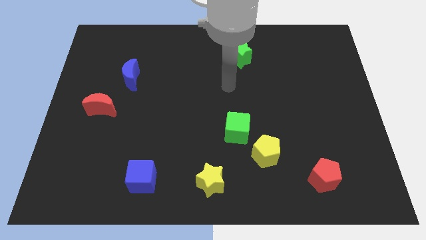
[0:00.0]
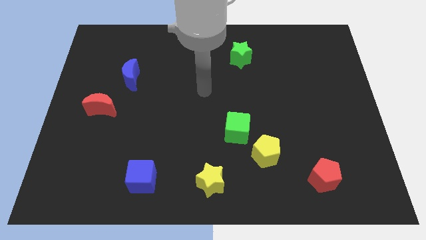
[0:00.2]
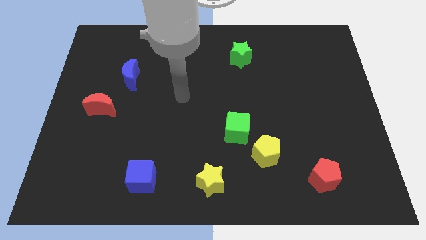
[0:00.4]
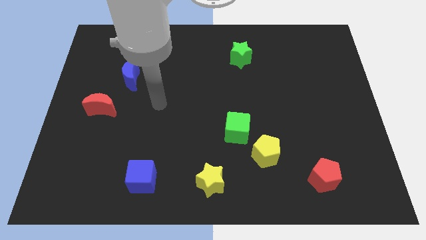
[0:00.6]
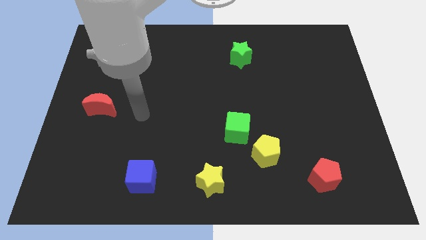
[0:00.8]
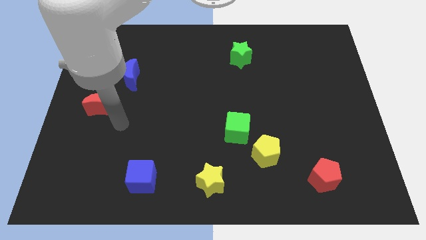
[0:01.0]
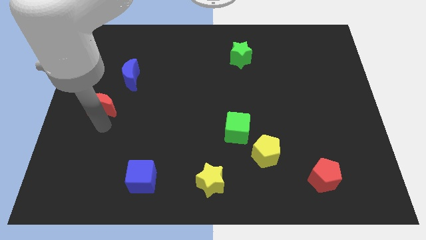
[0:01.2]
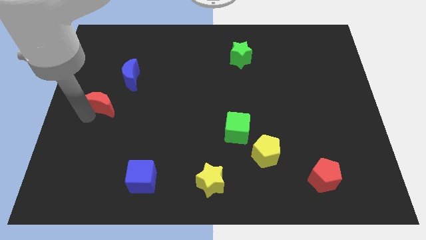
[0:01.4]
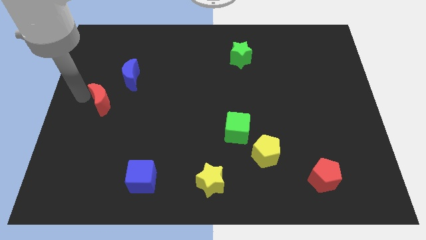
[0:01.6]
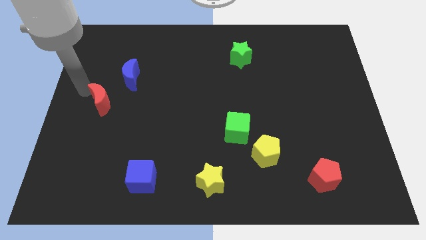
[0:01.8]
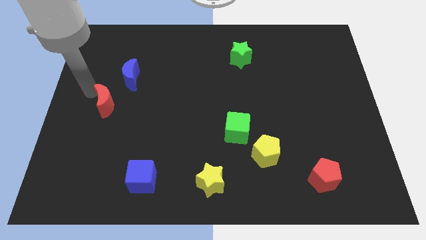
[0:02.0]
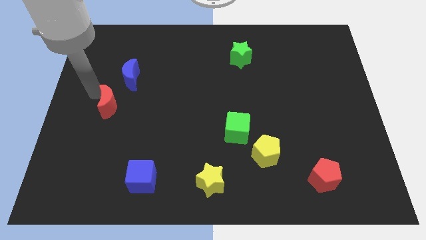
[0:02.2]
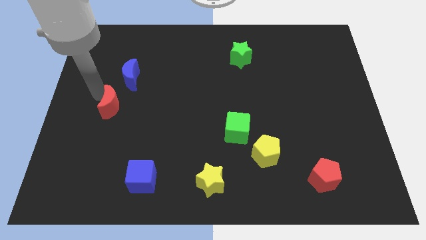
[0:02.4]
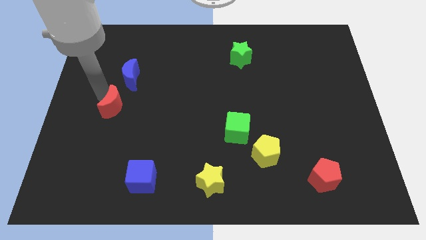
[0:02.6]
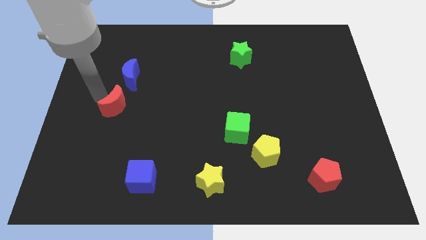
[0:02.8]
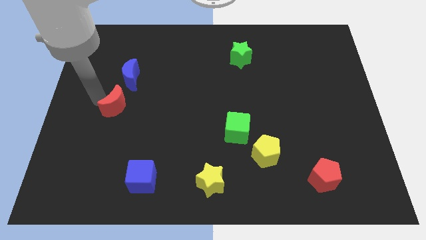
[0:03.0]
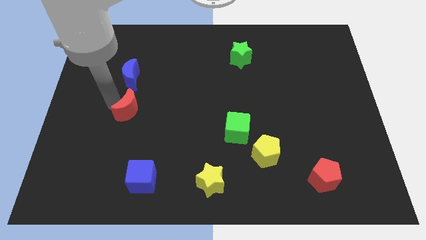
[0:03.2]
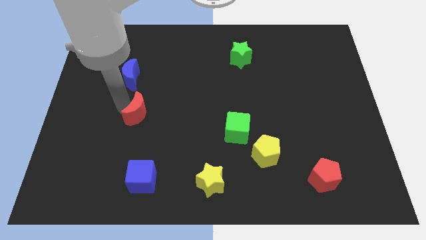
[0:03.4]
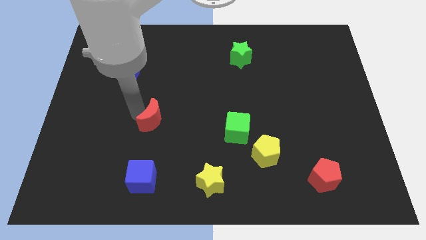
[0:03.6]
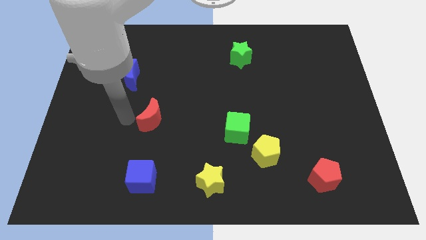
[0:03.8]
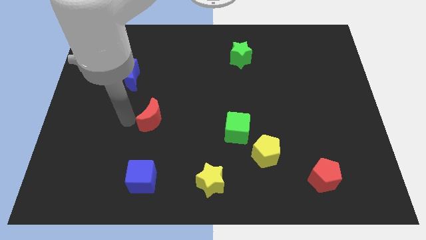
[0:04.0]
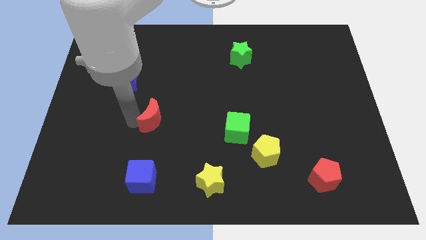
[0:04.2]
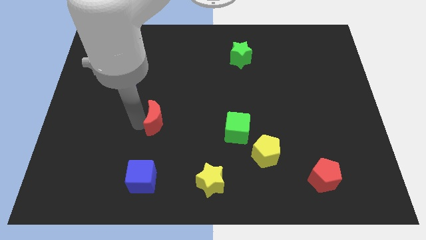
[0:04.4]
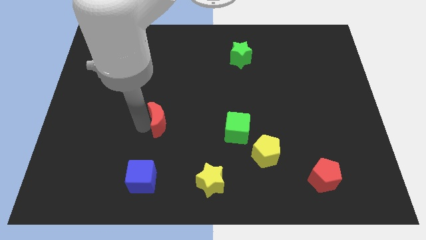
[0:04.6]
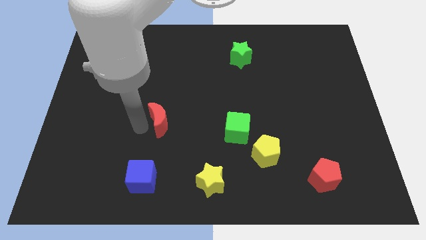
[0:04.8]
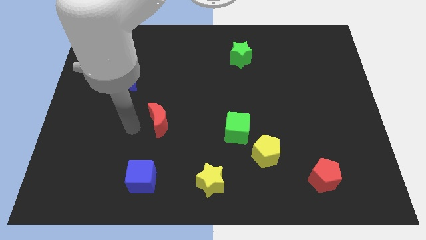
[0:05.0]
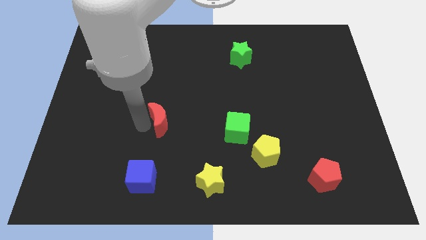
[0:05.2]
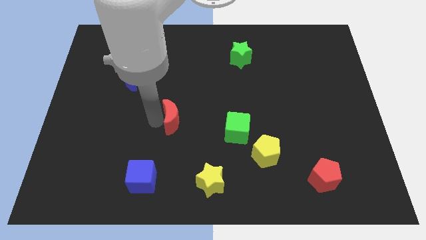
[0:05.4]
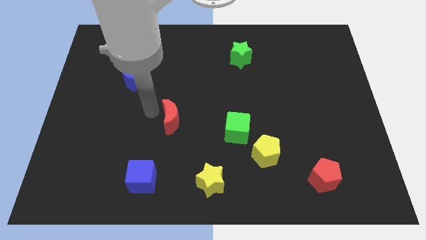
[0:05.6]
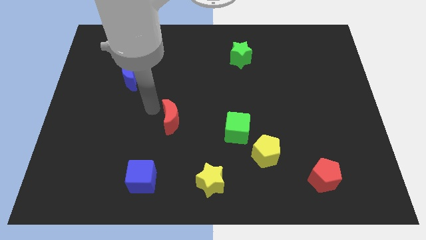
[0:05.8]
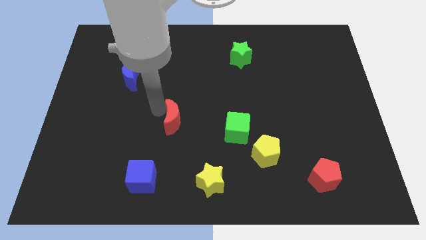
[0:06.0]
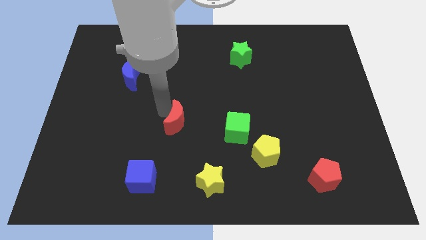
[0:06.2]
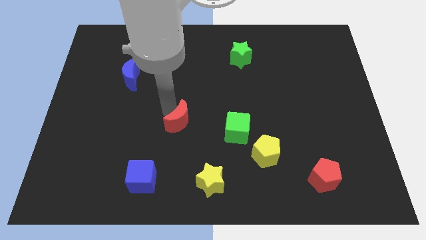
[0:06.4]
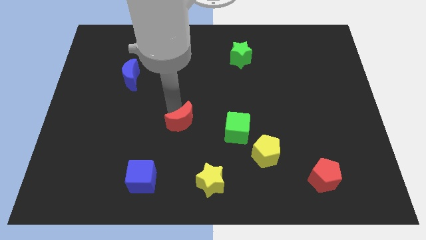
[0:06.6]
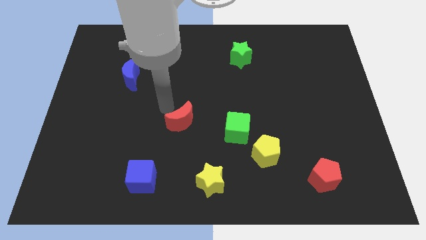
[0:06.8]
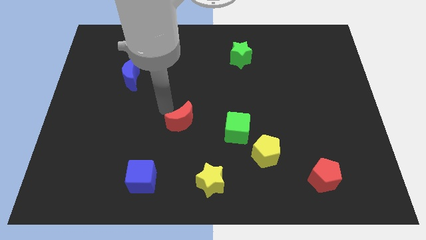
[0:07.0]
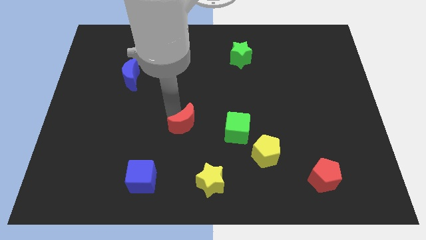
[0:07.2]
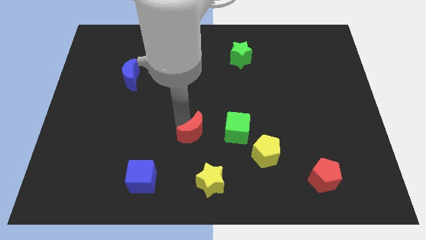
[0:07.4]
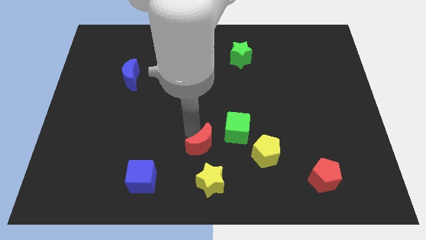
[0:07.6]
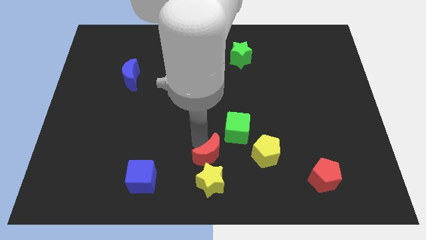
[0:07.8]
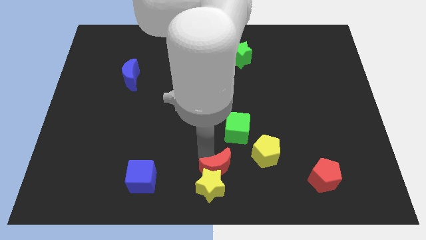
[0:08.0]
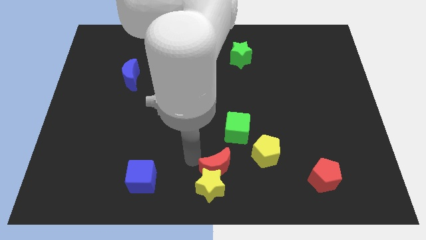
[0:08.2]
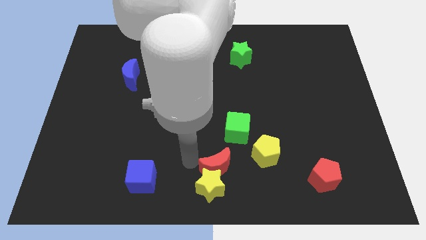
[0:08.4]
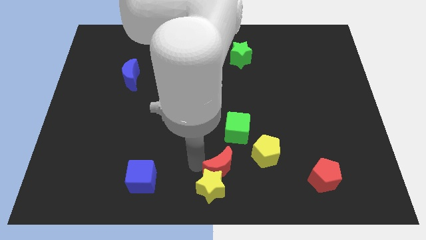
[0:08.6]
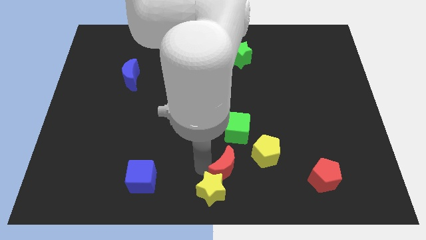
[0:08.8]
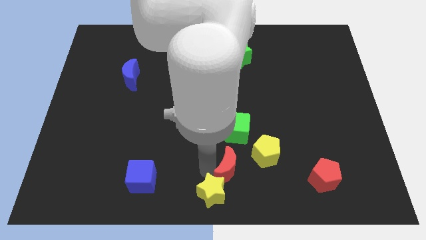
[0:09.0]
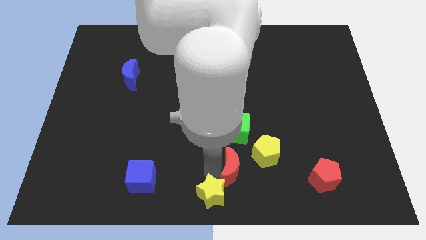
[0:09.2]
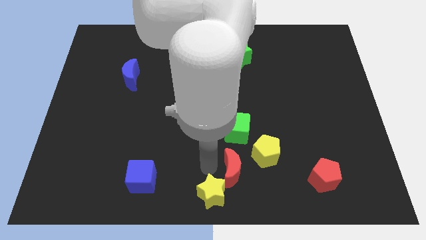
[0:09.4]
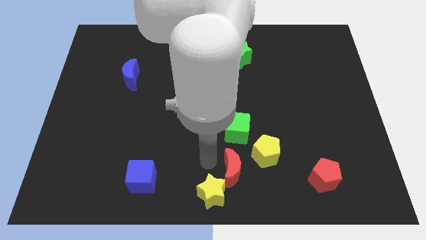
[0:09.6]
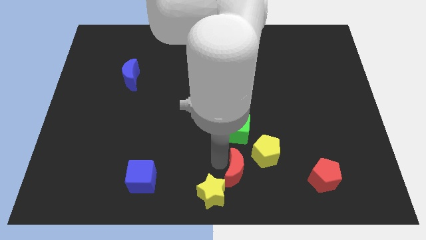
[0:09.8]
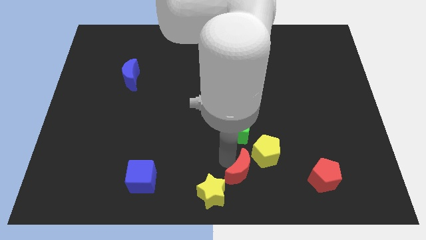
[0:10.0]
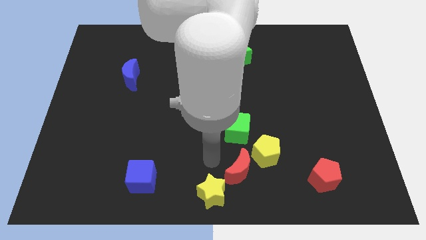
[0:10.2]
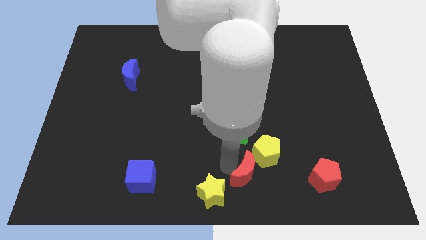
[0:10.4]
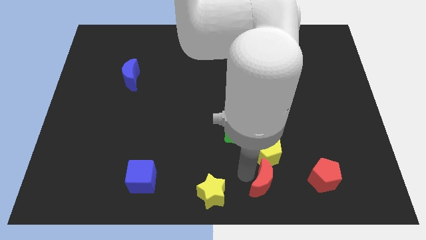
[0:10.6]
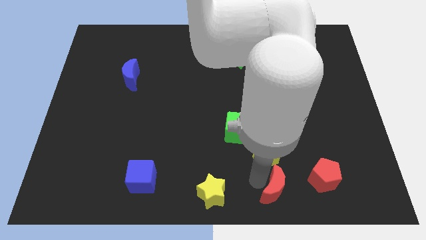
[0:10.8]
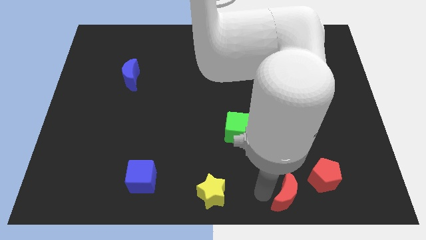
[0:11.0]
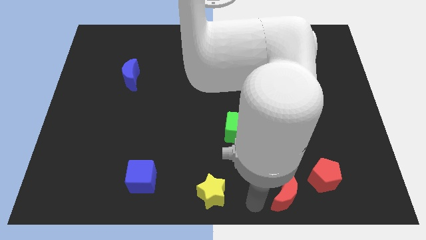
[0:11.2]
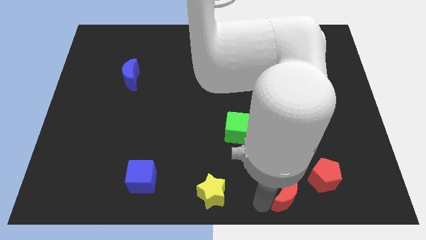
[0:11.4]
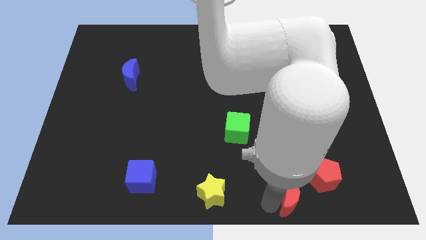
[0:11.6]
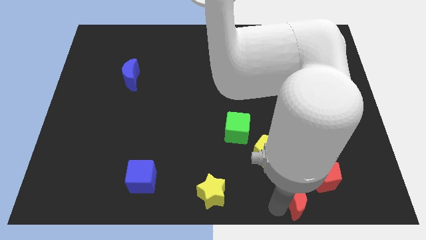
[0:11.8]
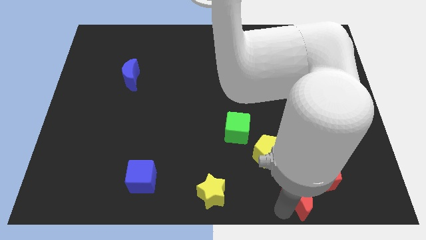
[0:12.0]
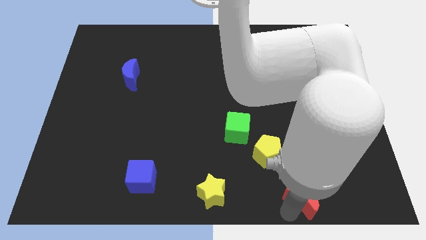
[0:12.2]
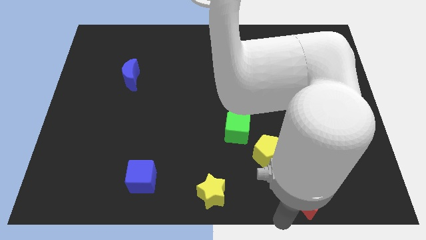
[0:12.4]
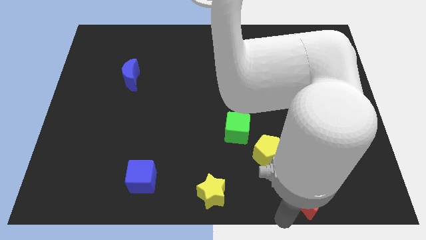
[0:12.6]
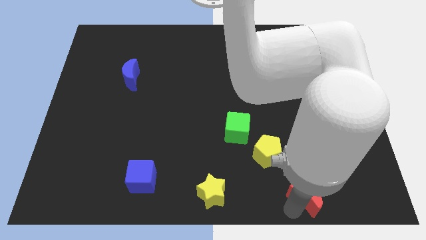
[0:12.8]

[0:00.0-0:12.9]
move the red moon close to the red pentagon

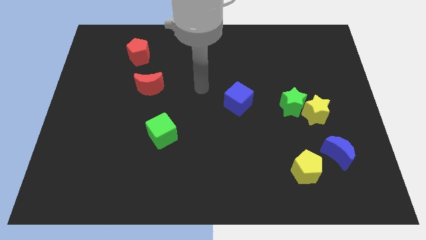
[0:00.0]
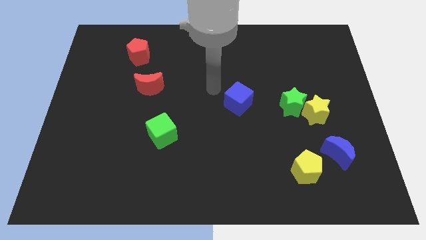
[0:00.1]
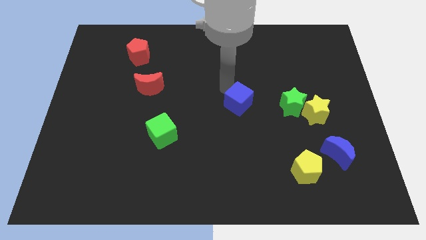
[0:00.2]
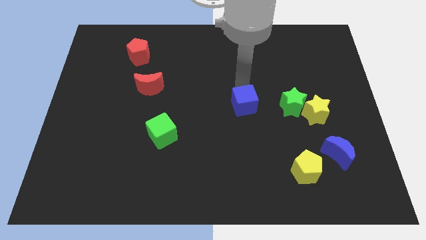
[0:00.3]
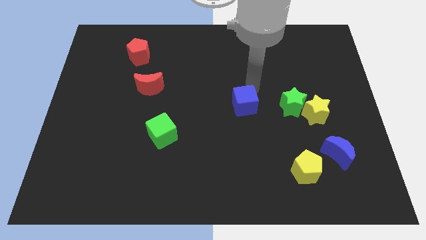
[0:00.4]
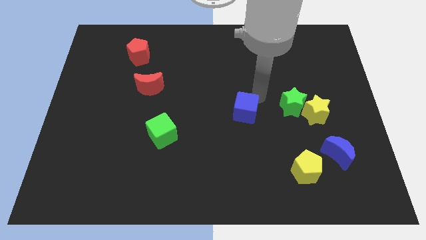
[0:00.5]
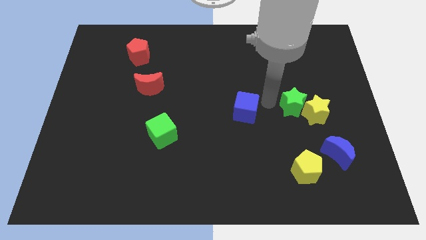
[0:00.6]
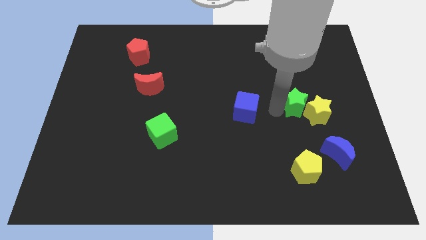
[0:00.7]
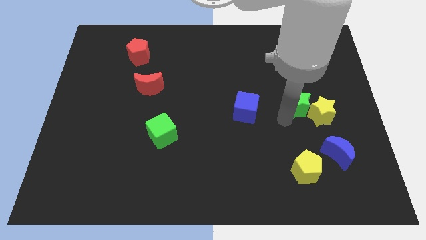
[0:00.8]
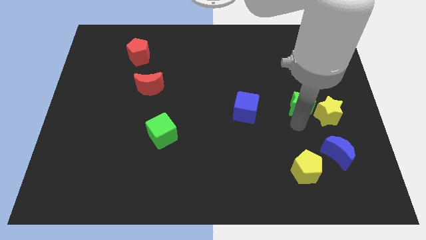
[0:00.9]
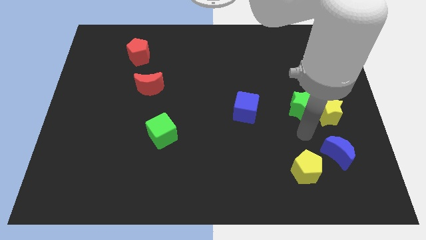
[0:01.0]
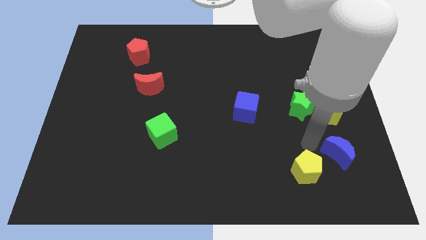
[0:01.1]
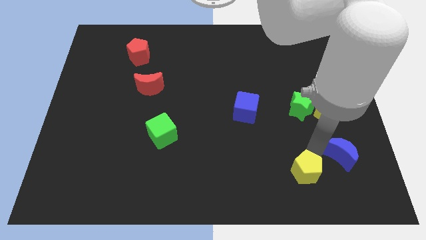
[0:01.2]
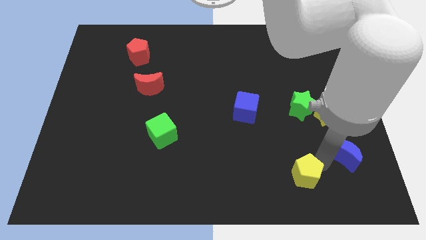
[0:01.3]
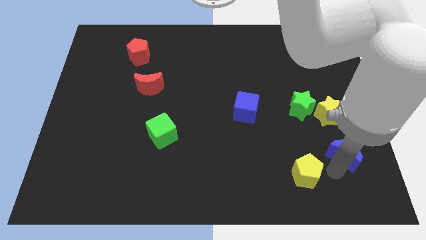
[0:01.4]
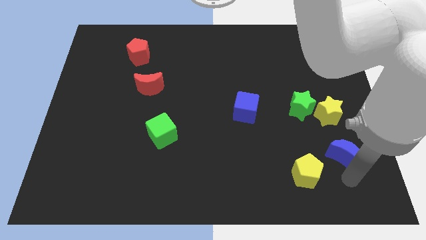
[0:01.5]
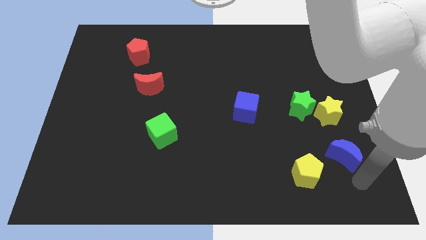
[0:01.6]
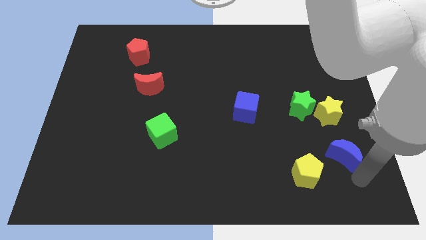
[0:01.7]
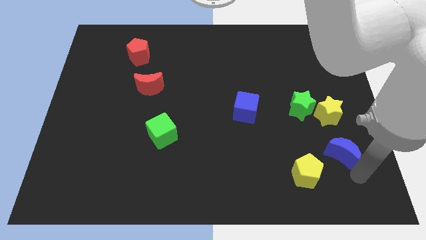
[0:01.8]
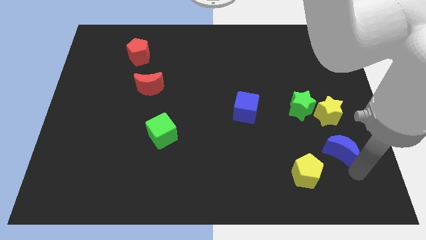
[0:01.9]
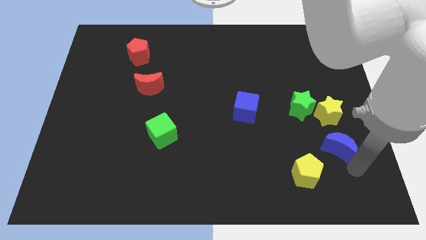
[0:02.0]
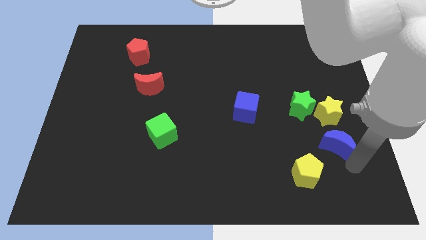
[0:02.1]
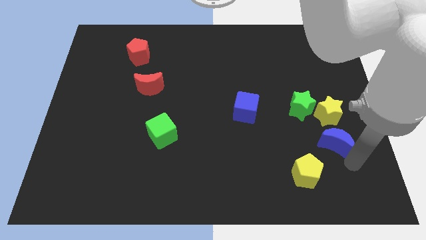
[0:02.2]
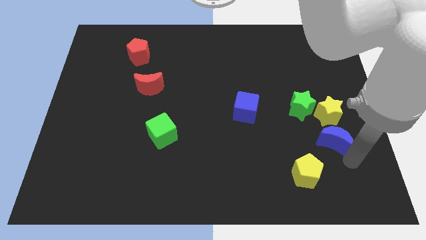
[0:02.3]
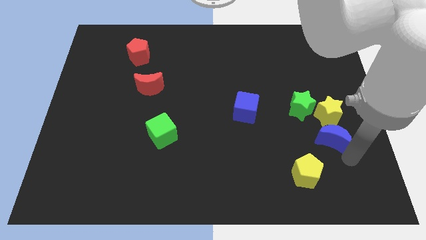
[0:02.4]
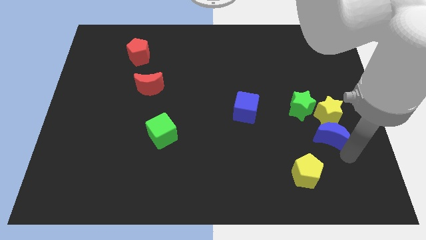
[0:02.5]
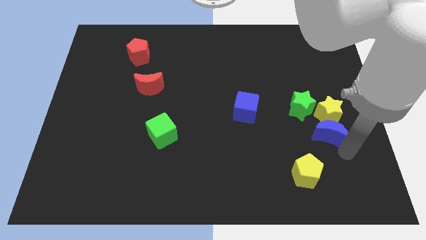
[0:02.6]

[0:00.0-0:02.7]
put the blue moon next to the yellow star
